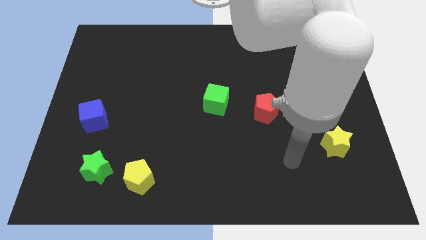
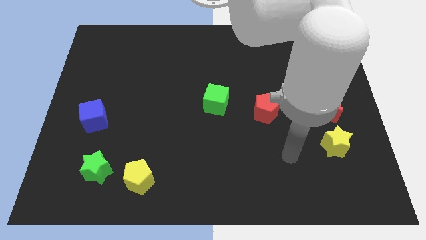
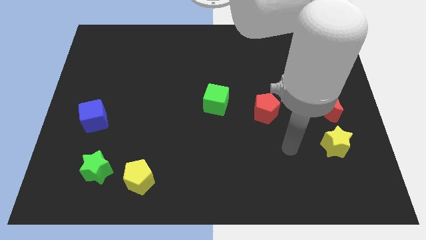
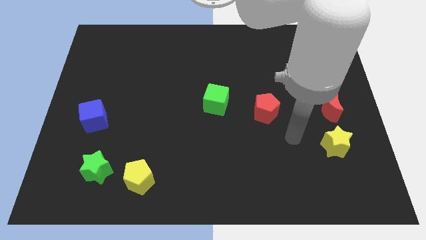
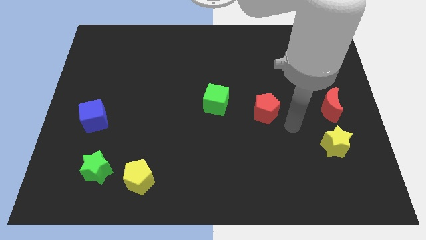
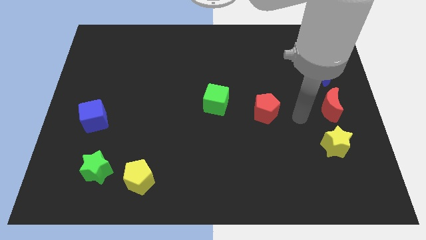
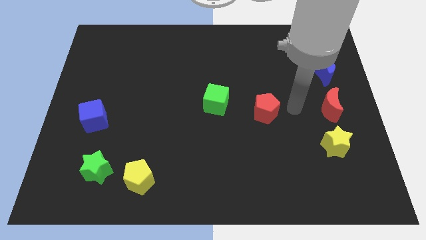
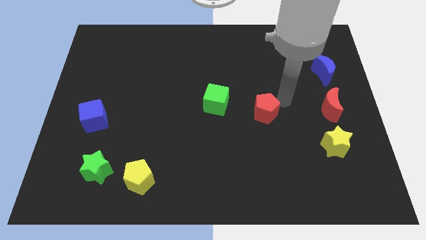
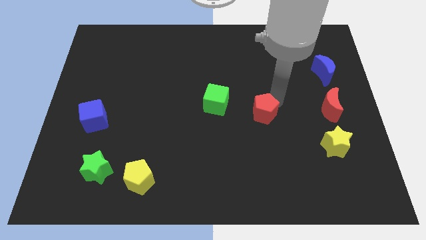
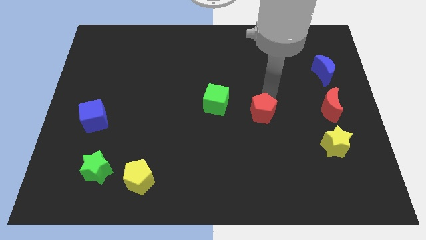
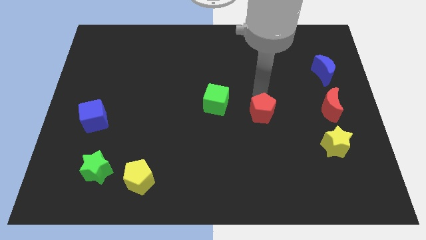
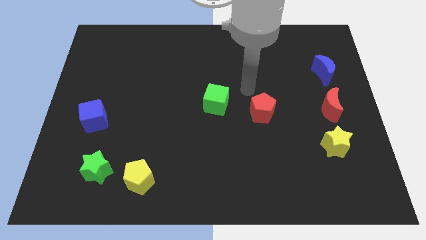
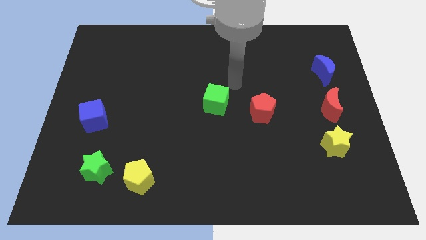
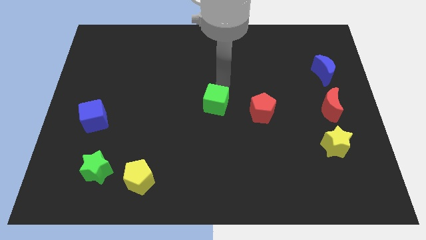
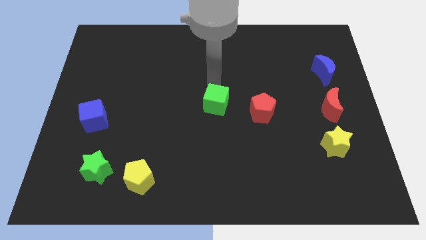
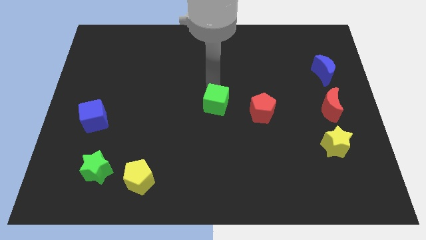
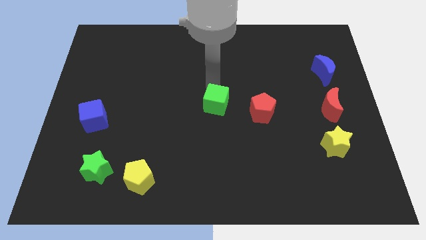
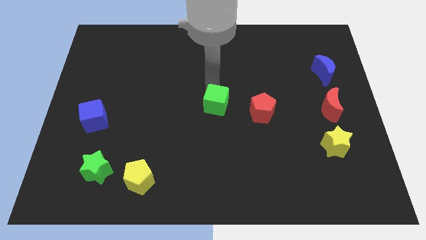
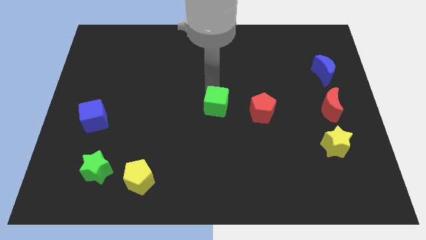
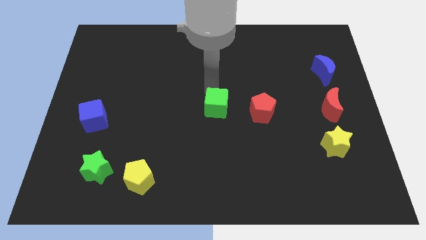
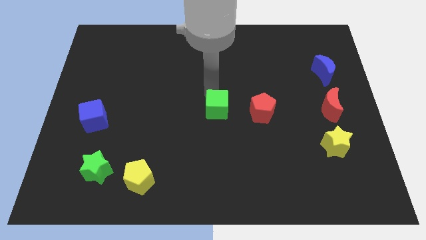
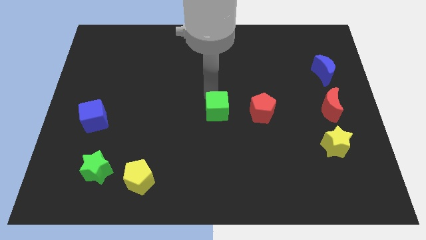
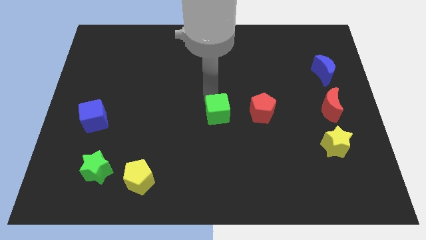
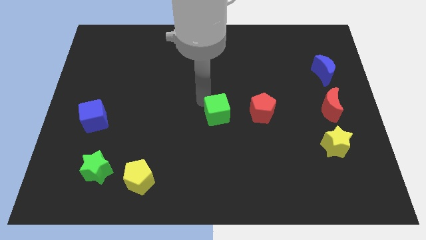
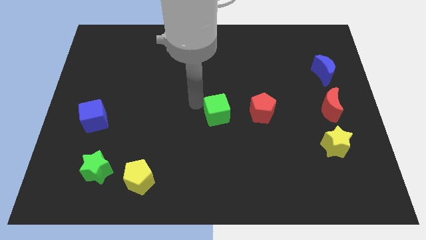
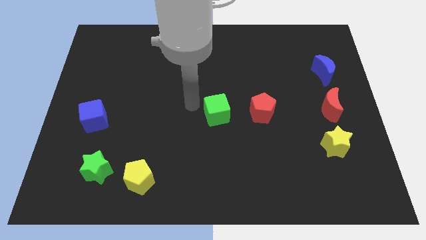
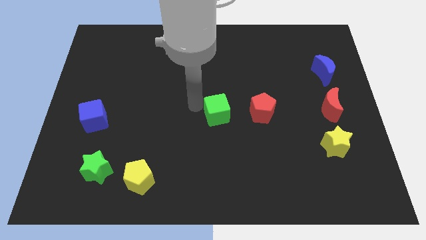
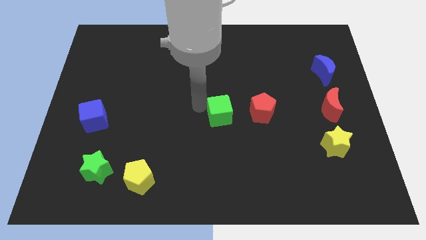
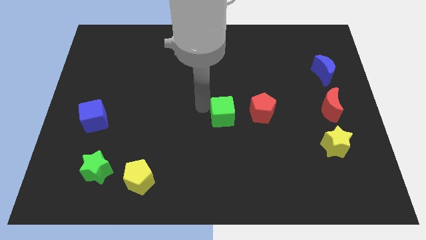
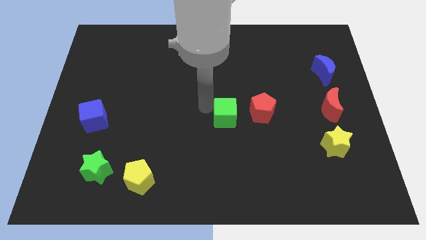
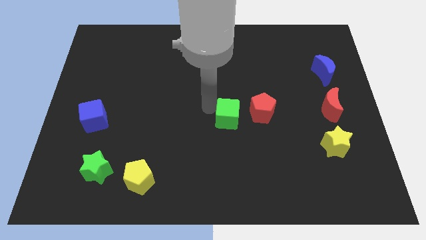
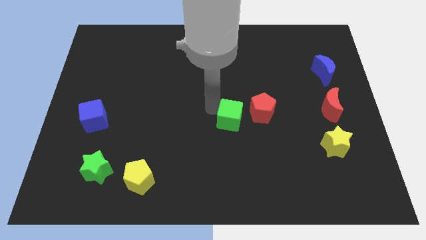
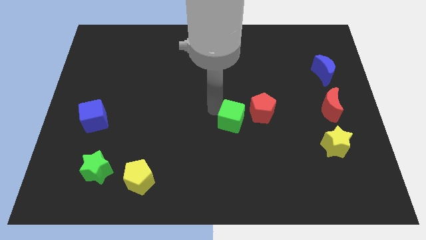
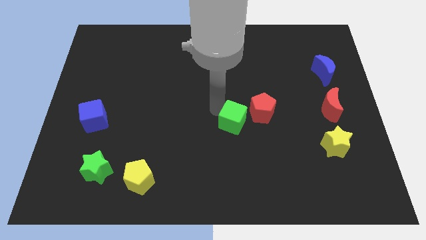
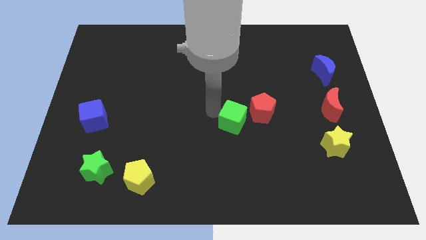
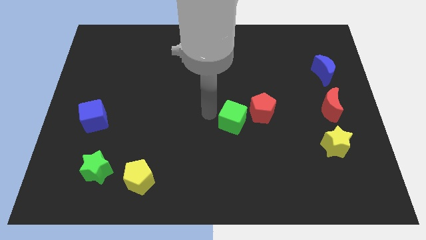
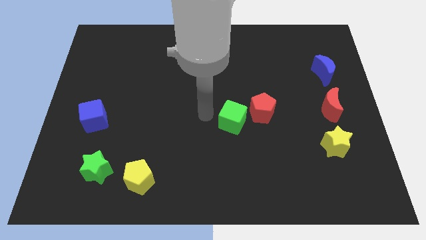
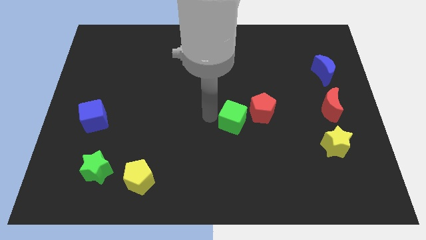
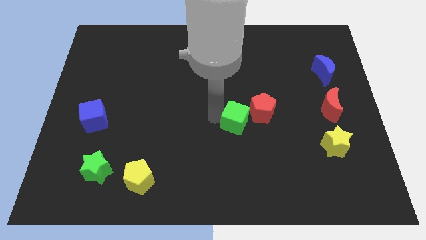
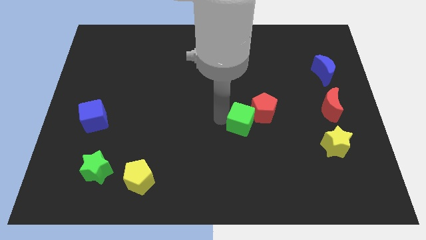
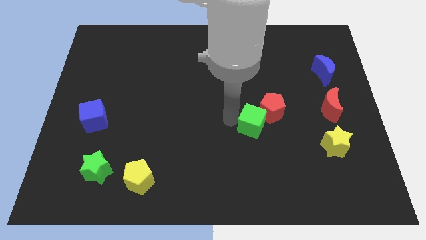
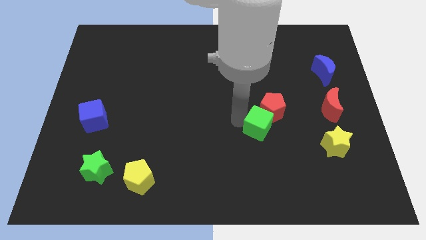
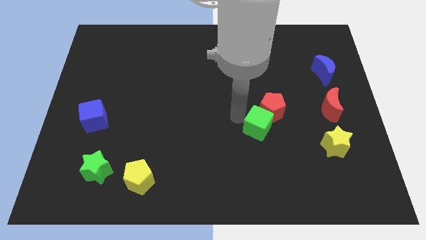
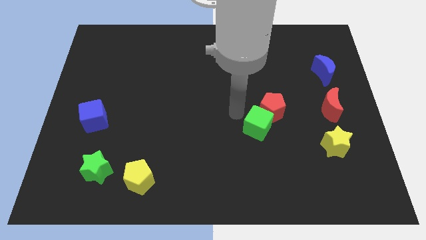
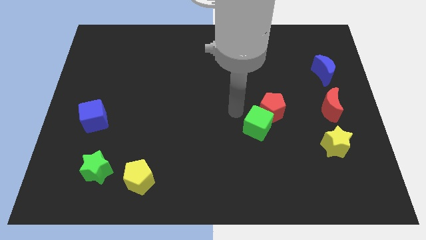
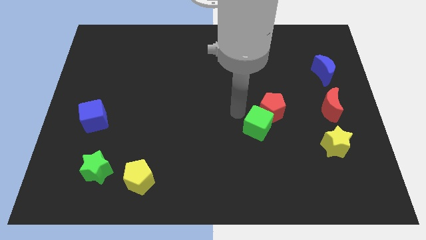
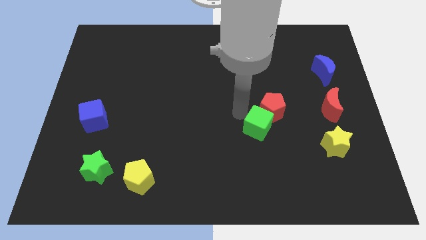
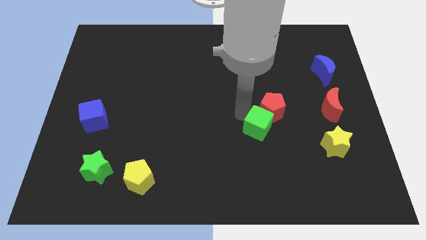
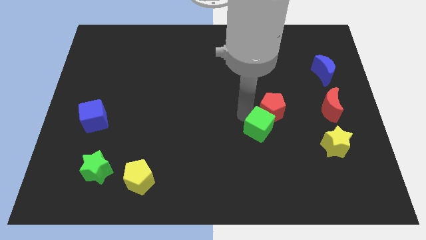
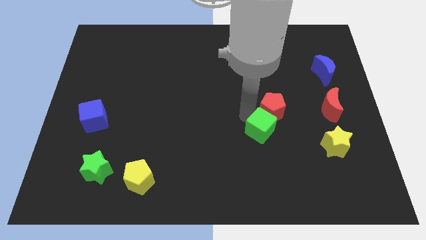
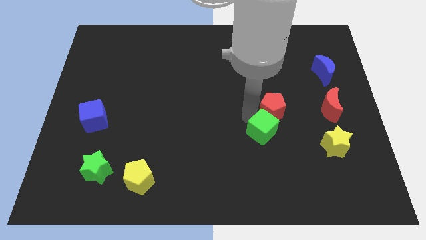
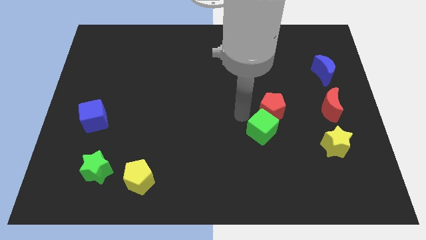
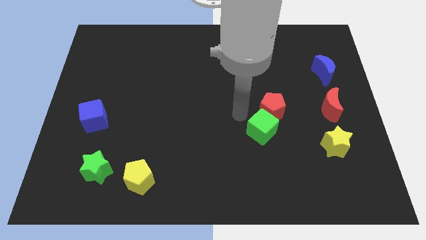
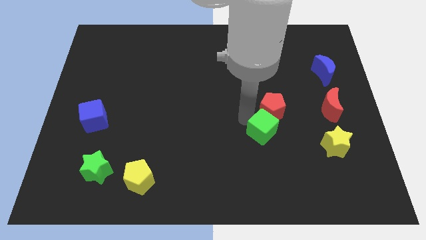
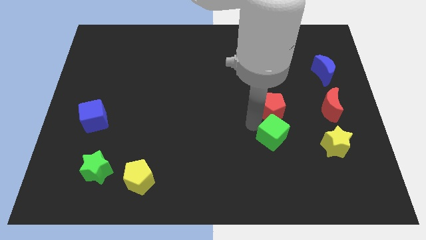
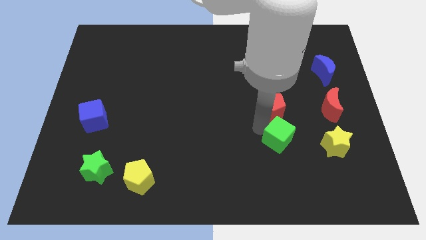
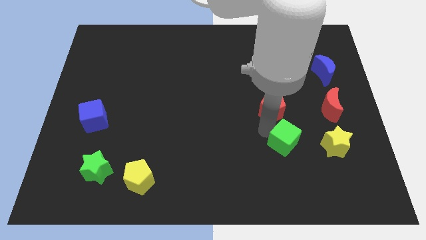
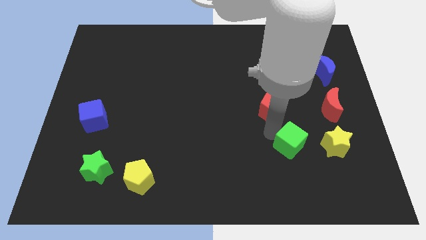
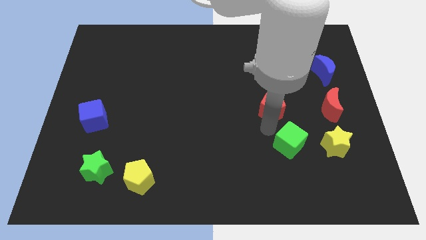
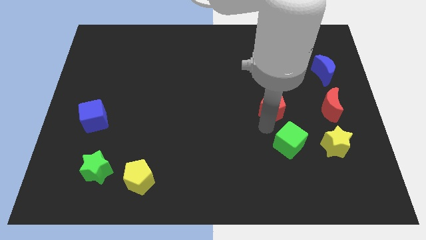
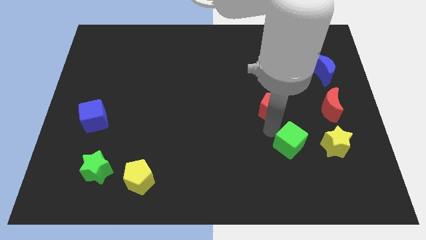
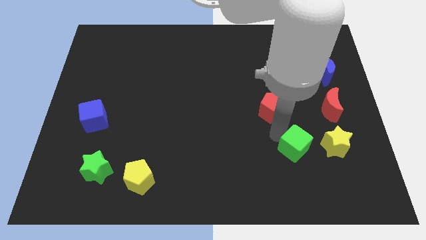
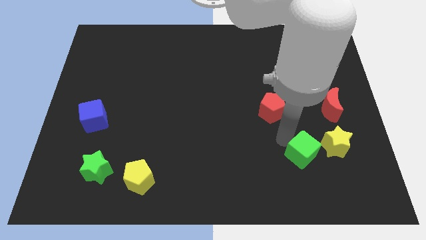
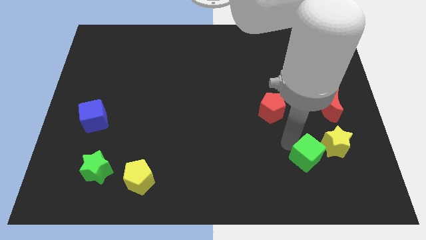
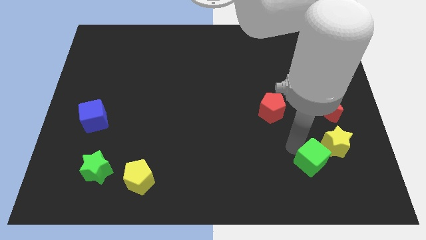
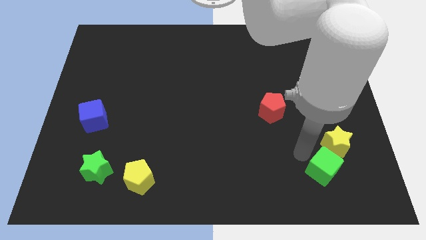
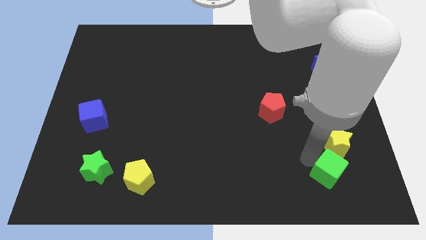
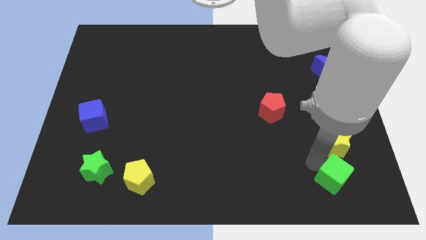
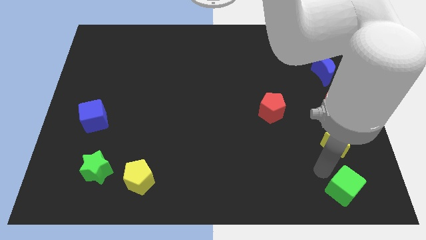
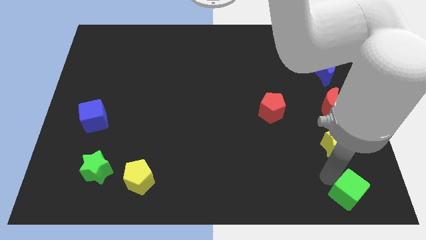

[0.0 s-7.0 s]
move the green cube to the lower right corner
